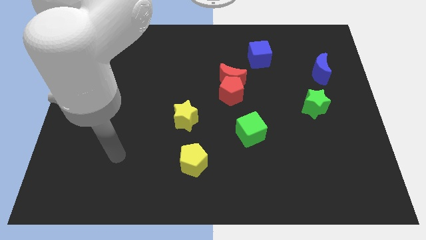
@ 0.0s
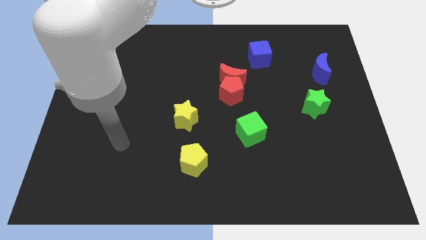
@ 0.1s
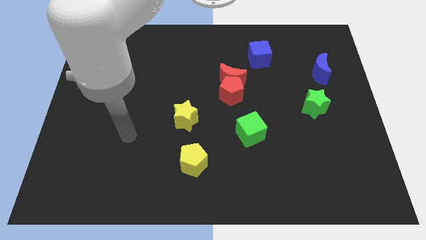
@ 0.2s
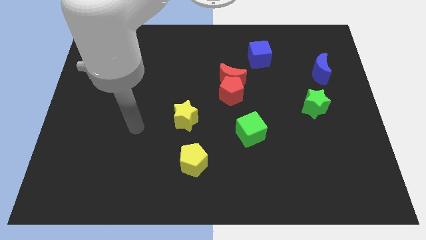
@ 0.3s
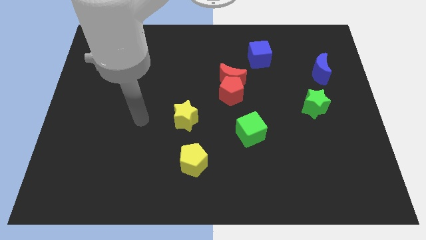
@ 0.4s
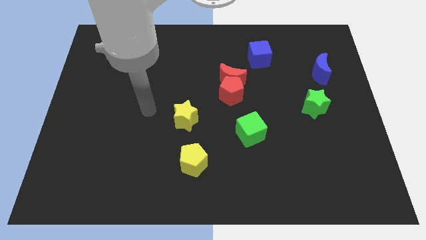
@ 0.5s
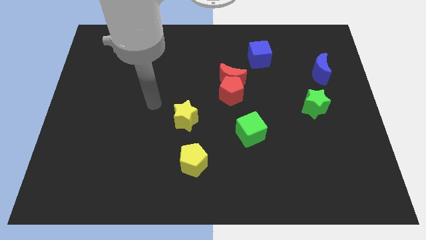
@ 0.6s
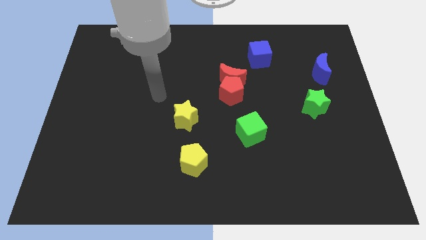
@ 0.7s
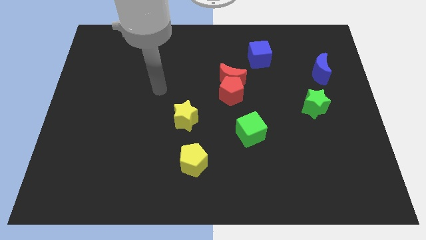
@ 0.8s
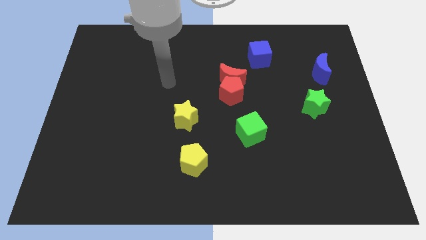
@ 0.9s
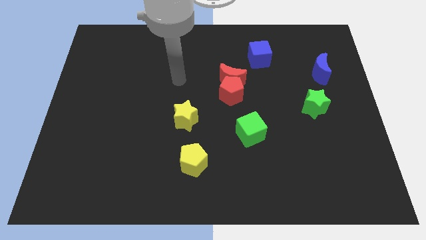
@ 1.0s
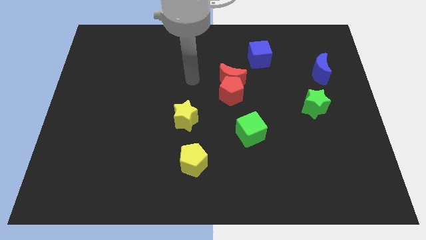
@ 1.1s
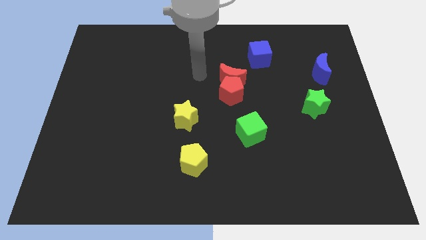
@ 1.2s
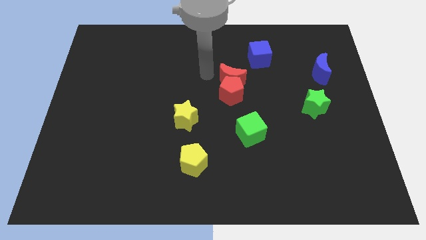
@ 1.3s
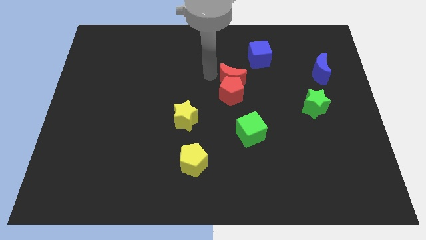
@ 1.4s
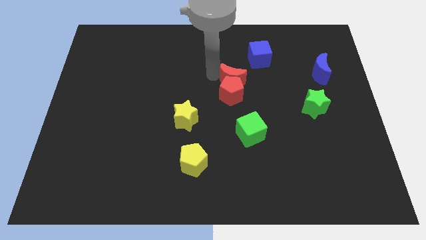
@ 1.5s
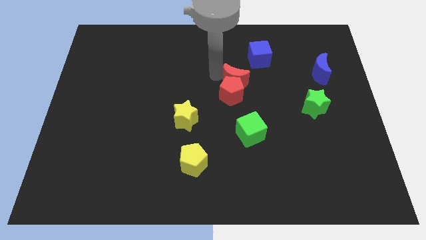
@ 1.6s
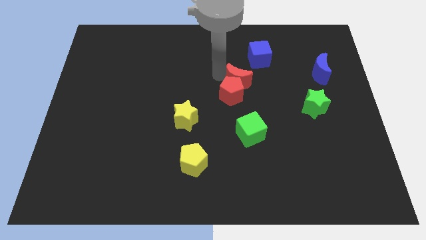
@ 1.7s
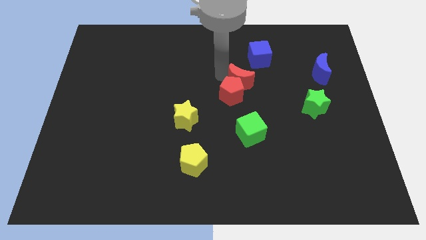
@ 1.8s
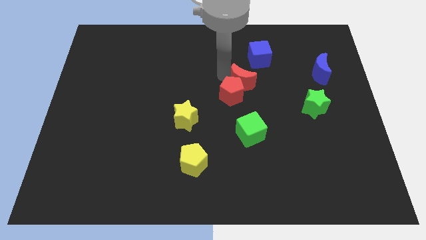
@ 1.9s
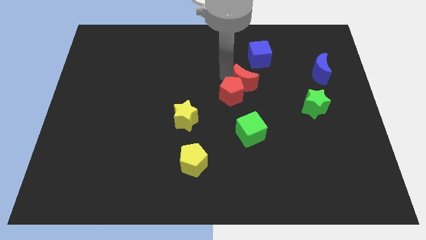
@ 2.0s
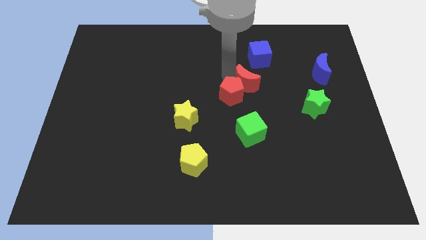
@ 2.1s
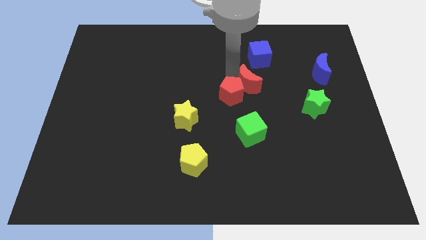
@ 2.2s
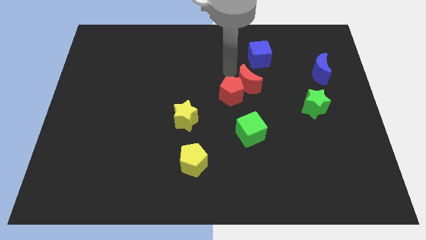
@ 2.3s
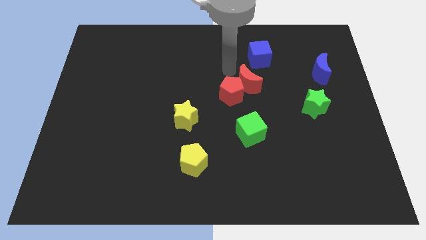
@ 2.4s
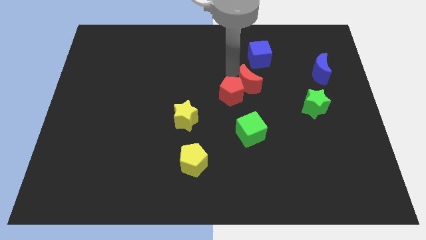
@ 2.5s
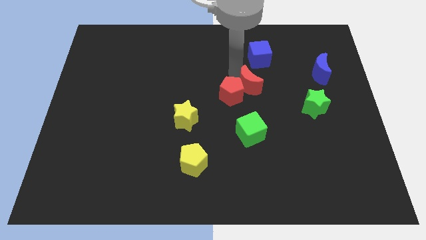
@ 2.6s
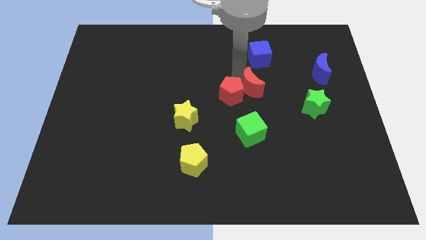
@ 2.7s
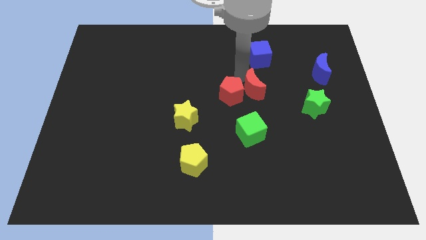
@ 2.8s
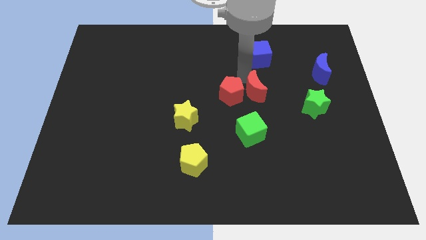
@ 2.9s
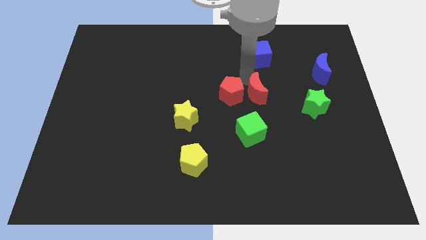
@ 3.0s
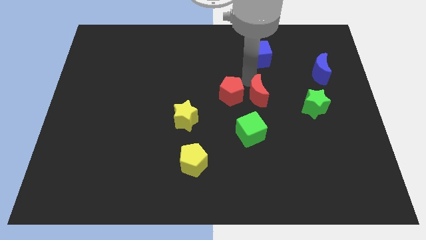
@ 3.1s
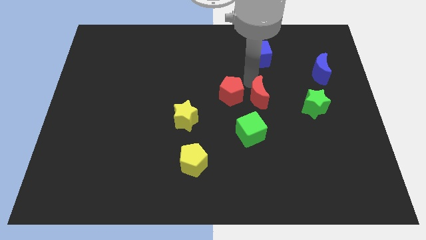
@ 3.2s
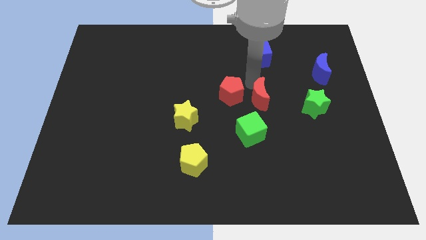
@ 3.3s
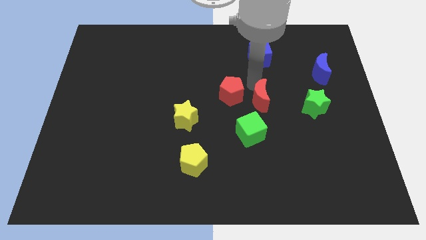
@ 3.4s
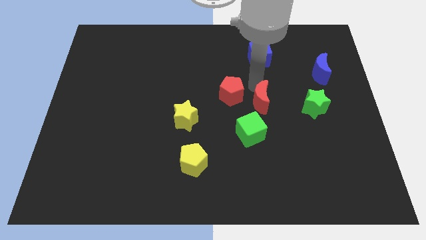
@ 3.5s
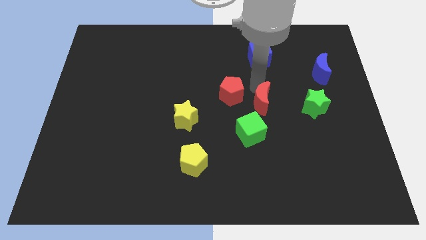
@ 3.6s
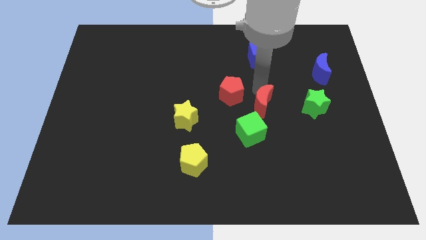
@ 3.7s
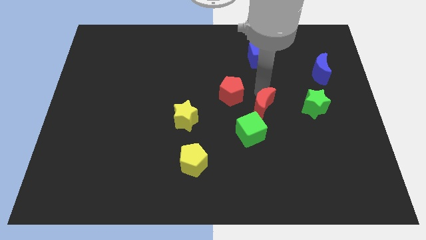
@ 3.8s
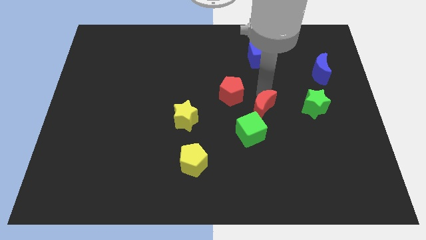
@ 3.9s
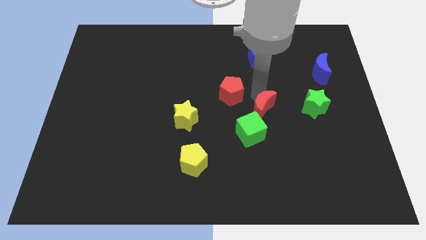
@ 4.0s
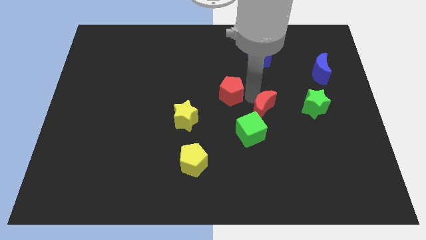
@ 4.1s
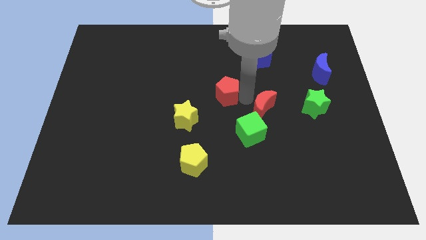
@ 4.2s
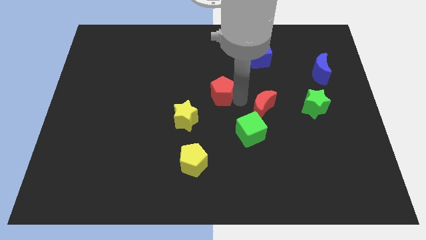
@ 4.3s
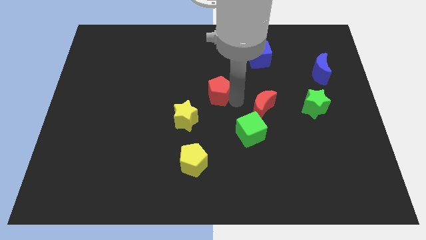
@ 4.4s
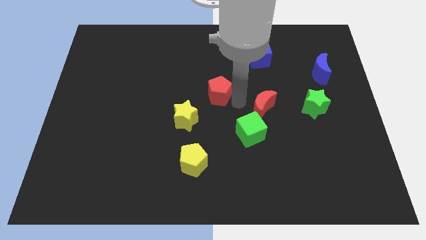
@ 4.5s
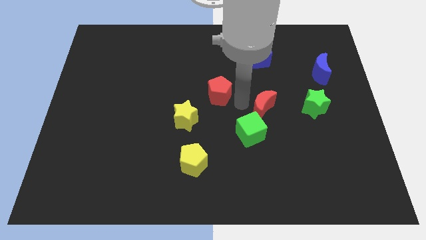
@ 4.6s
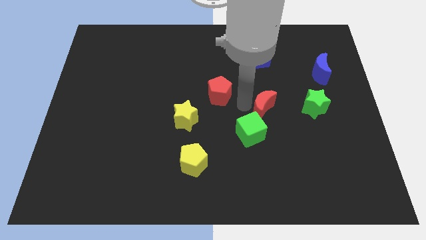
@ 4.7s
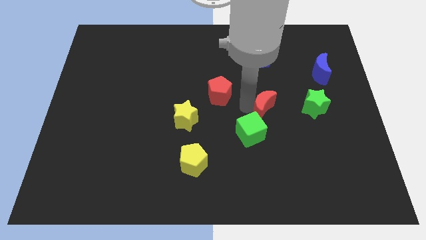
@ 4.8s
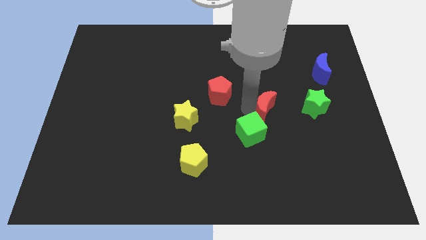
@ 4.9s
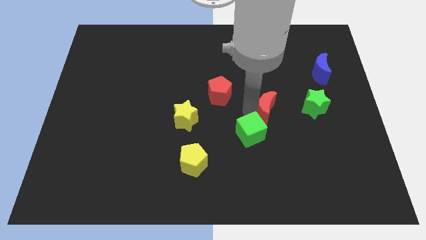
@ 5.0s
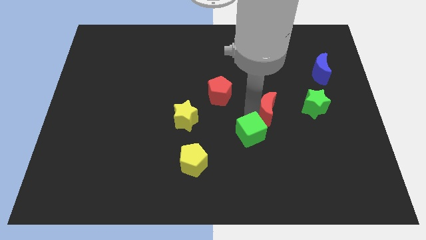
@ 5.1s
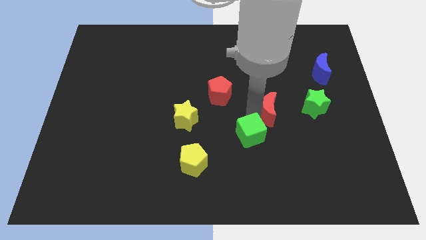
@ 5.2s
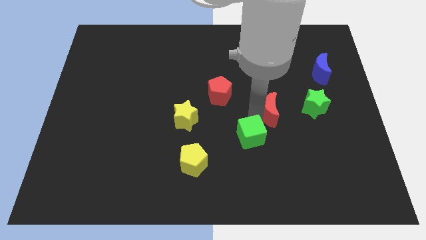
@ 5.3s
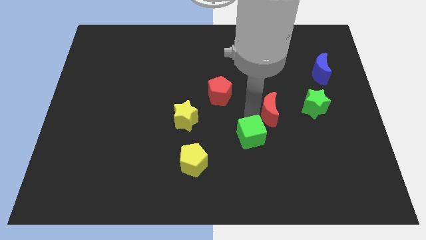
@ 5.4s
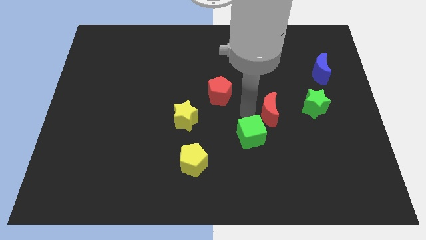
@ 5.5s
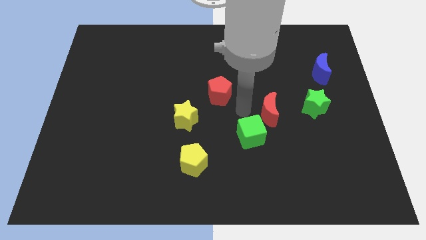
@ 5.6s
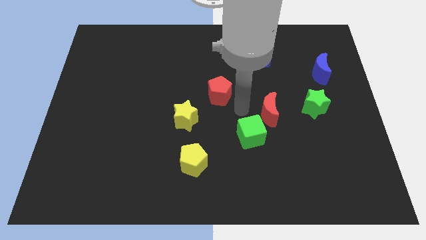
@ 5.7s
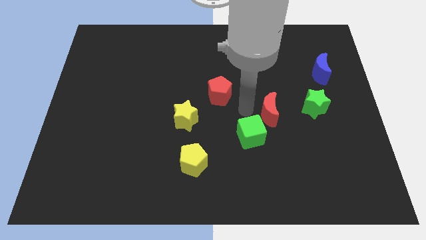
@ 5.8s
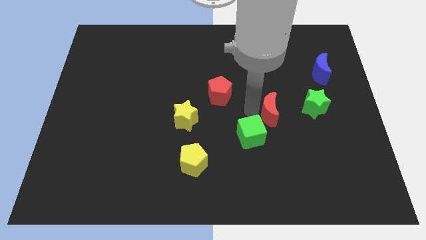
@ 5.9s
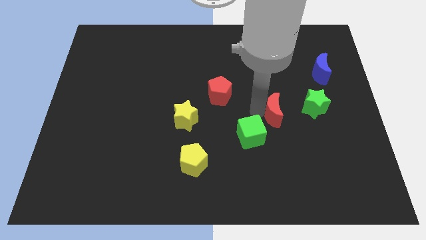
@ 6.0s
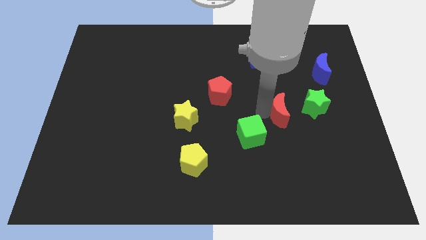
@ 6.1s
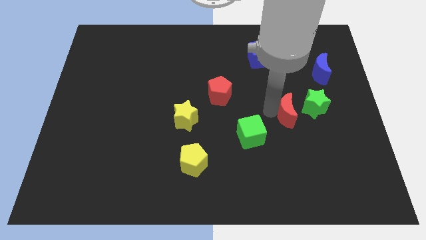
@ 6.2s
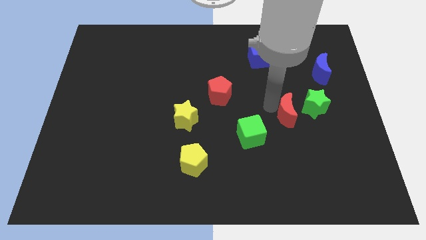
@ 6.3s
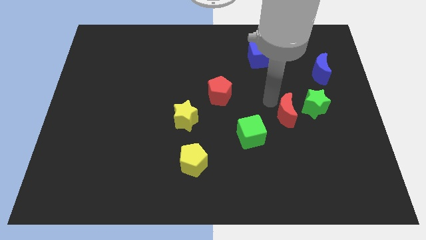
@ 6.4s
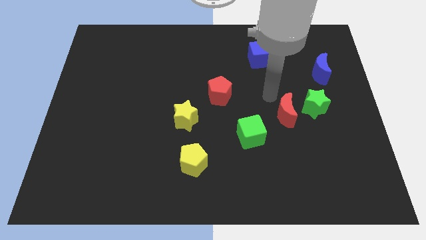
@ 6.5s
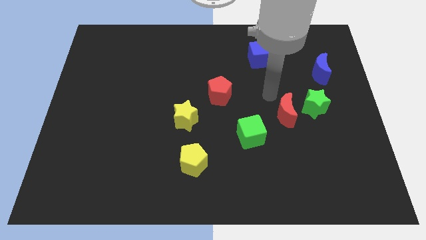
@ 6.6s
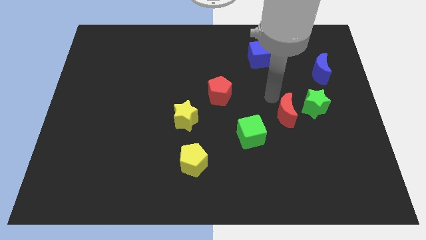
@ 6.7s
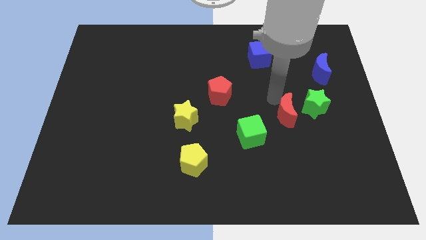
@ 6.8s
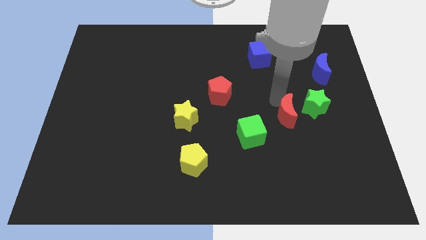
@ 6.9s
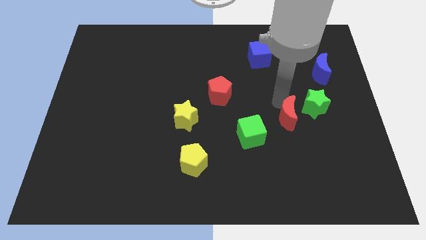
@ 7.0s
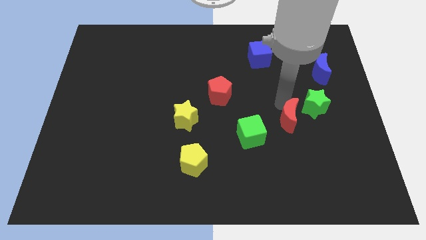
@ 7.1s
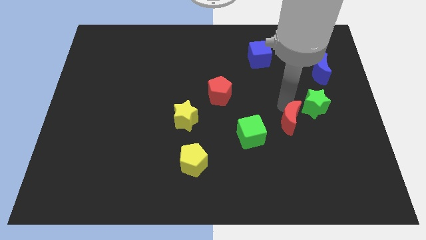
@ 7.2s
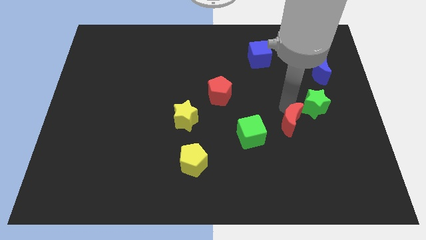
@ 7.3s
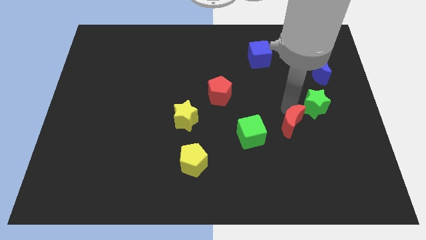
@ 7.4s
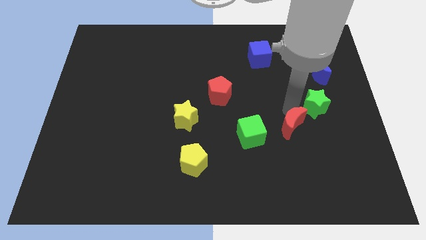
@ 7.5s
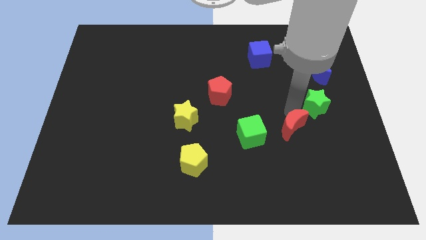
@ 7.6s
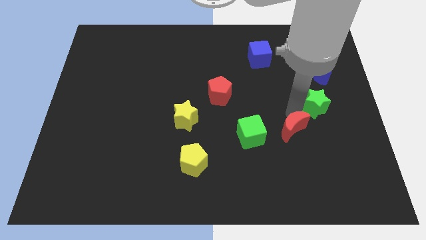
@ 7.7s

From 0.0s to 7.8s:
slide the red moon down and to the right

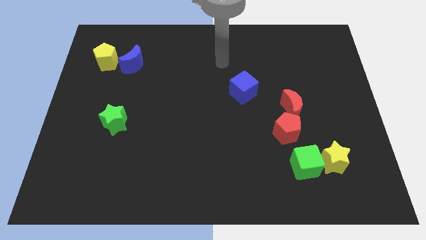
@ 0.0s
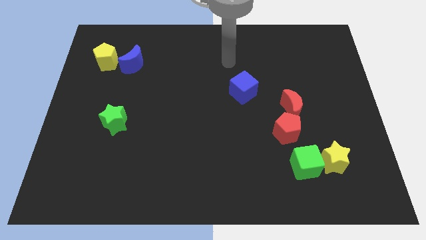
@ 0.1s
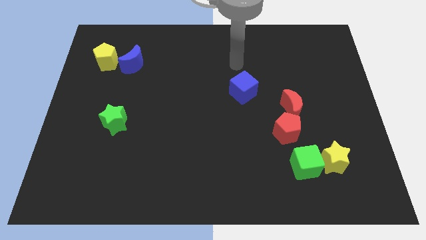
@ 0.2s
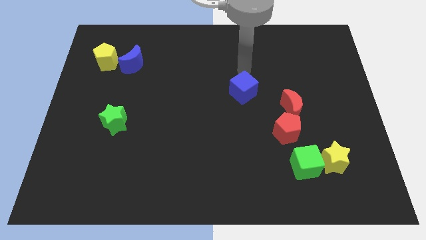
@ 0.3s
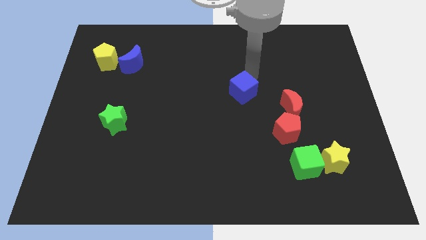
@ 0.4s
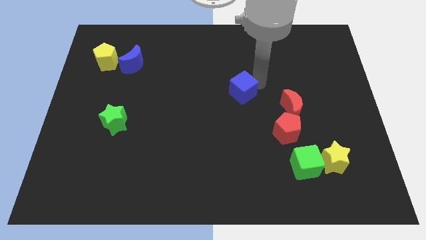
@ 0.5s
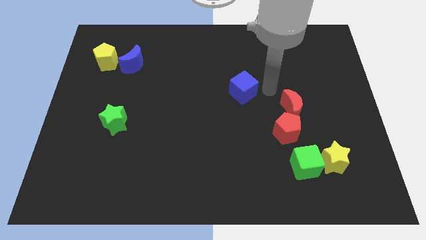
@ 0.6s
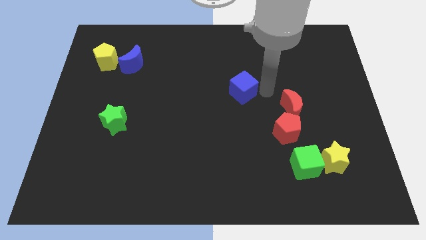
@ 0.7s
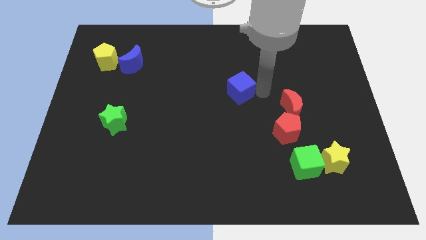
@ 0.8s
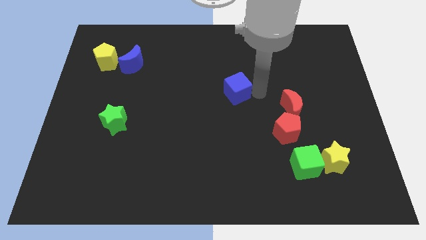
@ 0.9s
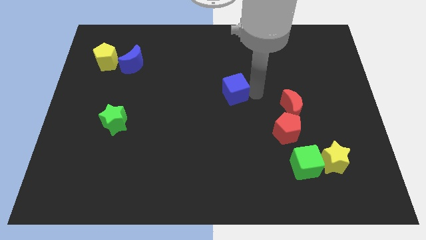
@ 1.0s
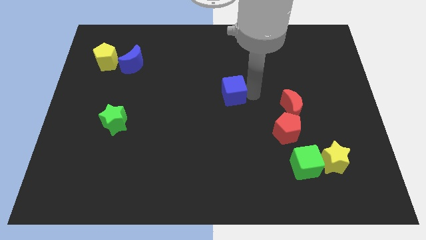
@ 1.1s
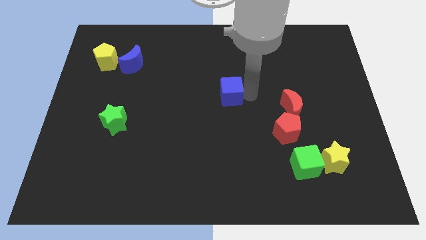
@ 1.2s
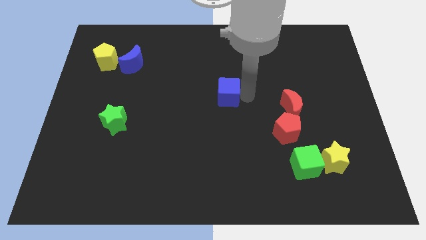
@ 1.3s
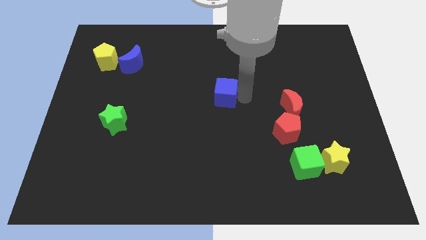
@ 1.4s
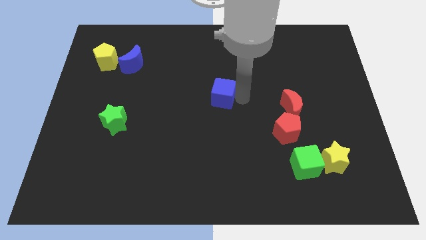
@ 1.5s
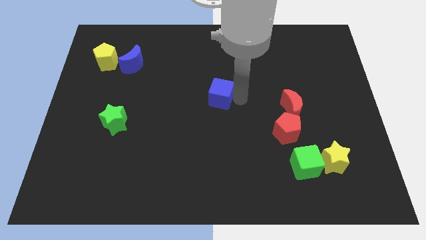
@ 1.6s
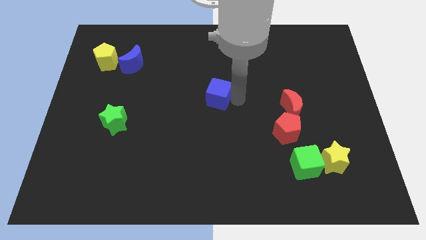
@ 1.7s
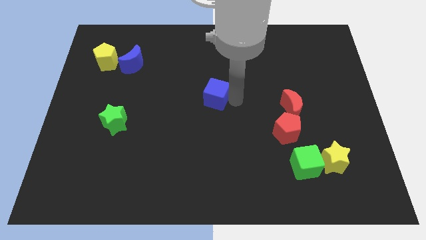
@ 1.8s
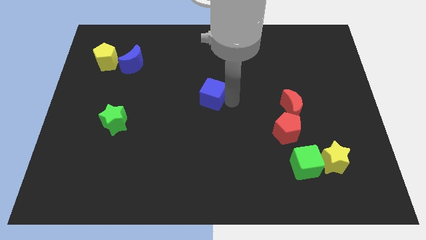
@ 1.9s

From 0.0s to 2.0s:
push the blue cube left slightly
